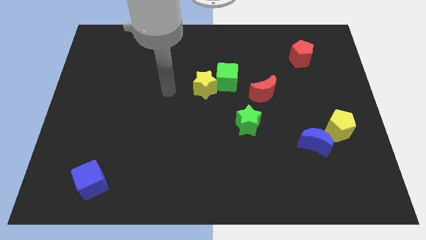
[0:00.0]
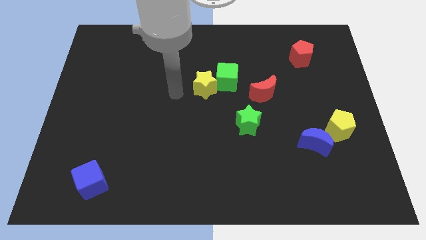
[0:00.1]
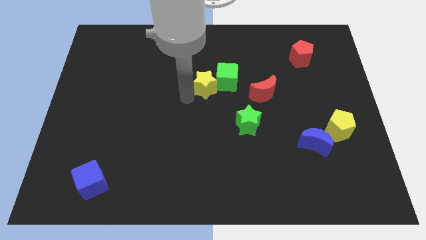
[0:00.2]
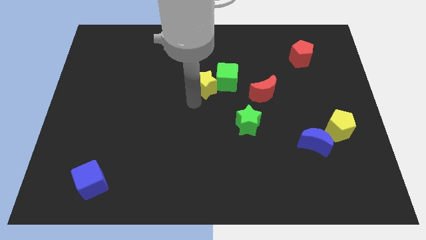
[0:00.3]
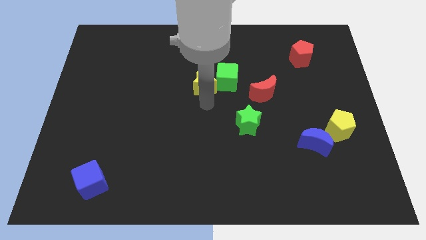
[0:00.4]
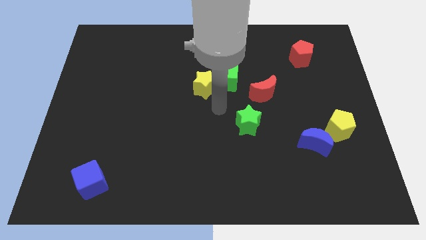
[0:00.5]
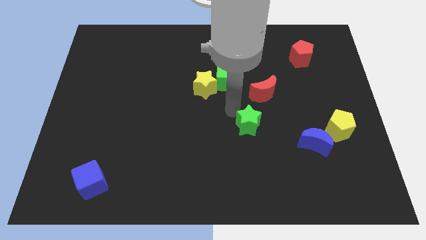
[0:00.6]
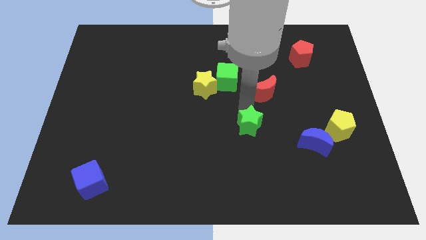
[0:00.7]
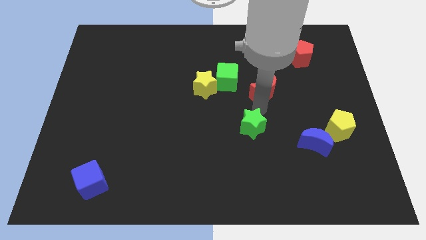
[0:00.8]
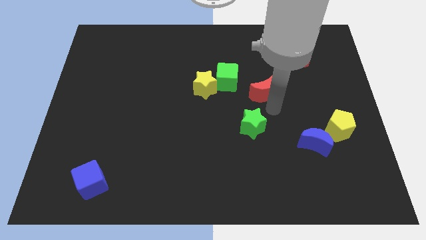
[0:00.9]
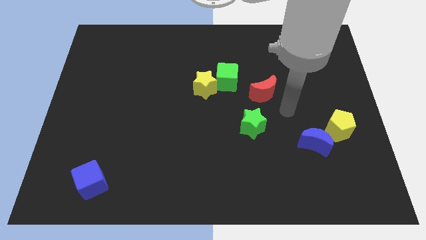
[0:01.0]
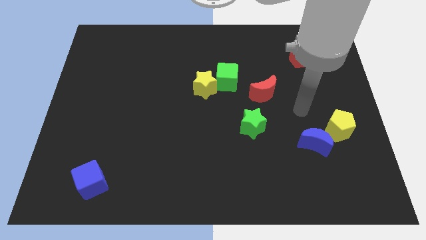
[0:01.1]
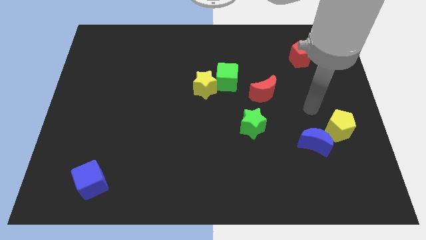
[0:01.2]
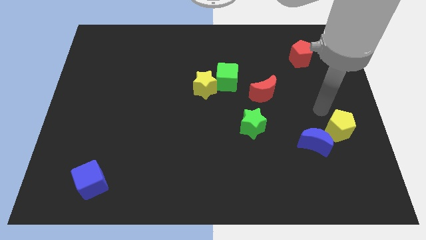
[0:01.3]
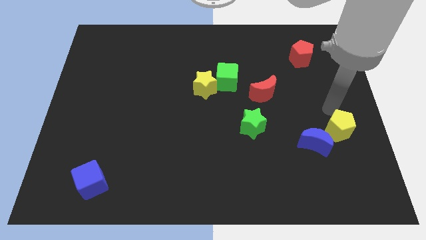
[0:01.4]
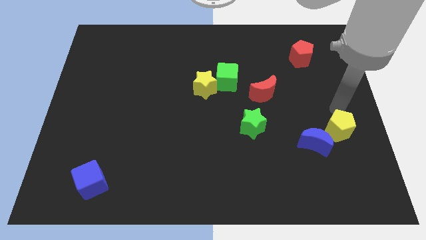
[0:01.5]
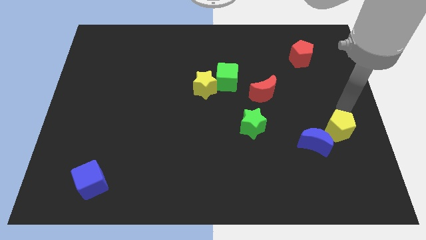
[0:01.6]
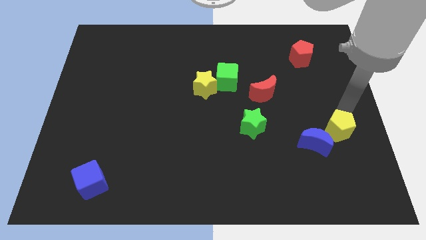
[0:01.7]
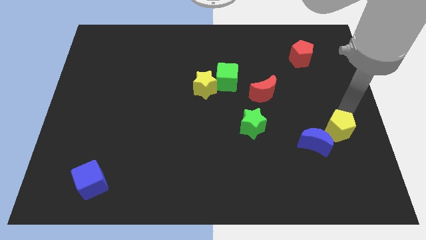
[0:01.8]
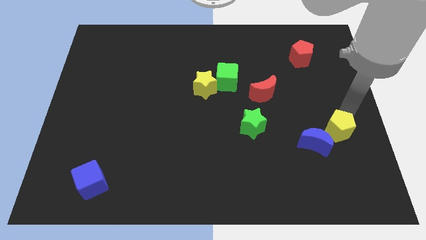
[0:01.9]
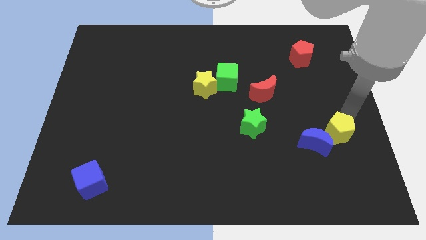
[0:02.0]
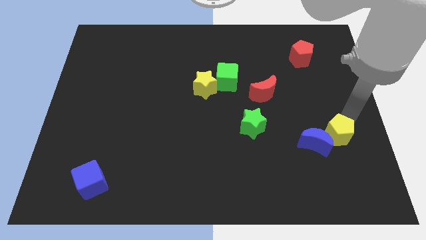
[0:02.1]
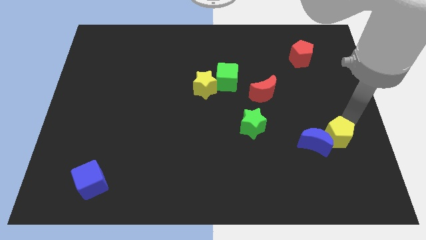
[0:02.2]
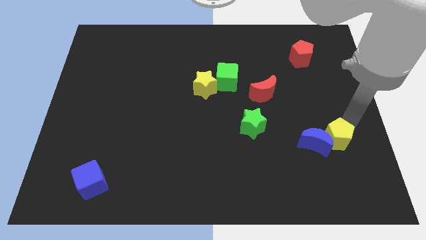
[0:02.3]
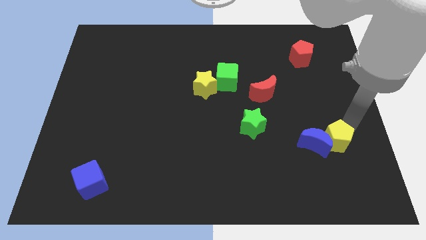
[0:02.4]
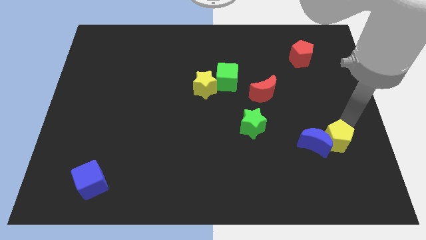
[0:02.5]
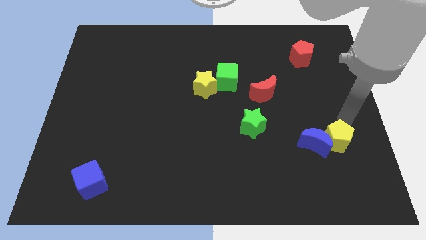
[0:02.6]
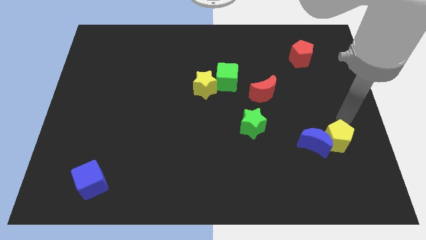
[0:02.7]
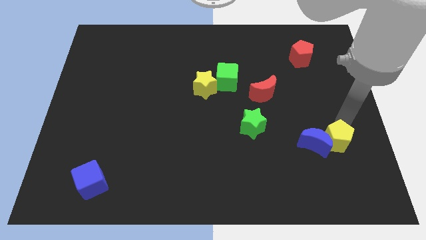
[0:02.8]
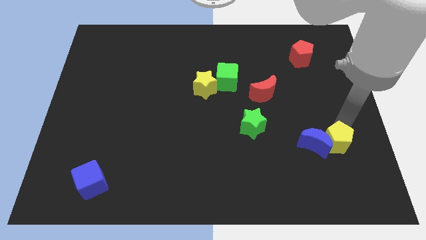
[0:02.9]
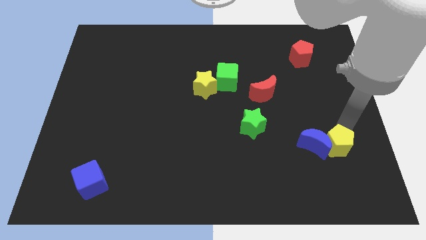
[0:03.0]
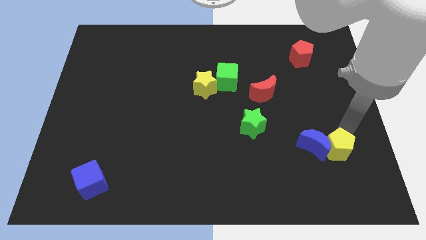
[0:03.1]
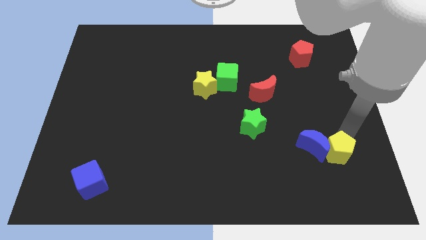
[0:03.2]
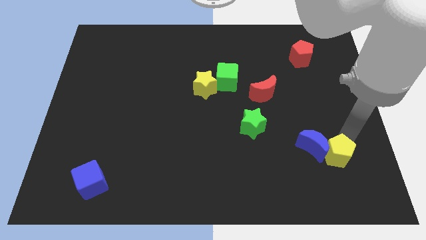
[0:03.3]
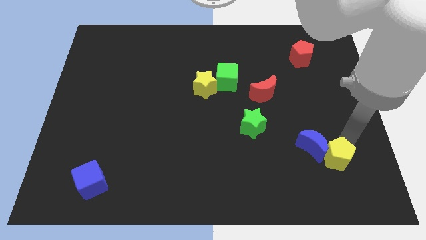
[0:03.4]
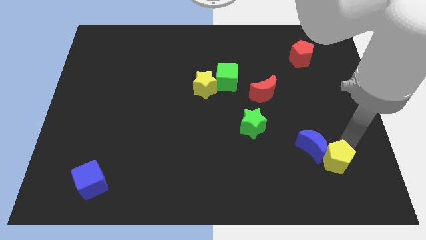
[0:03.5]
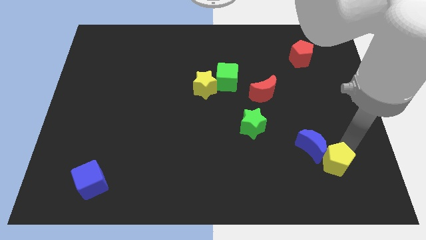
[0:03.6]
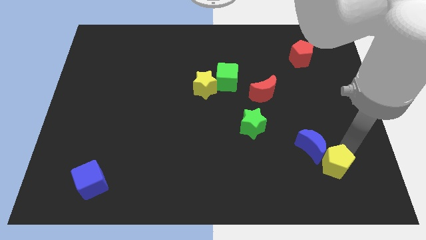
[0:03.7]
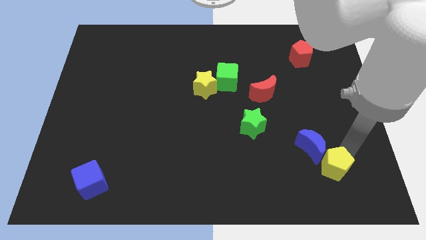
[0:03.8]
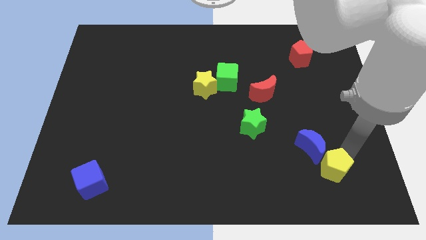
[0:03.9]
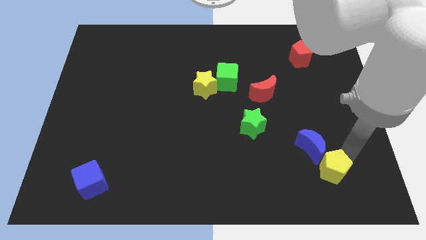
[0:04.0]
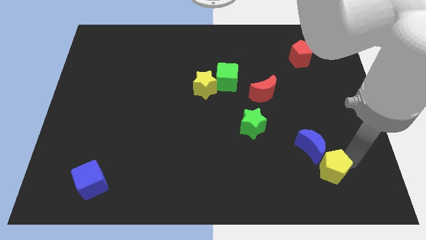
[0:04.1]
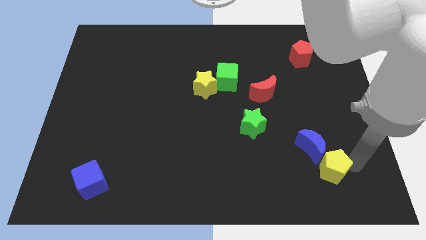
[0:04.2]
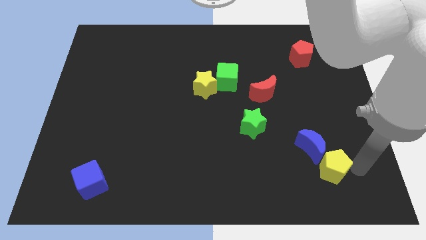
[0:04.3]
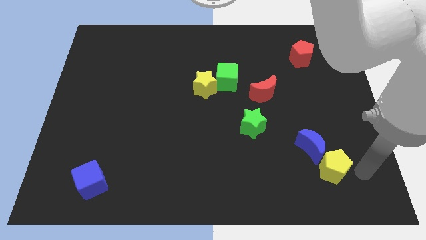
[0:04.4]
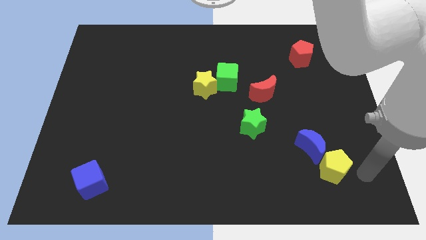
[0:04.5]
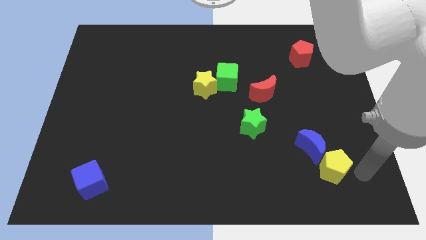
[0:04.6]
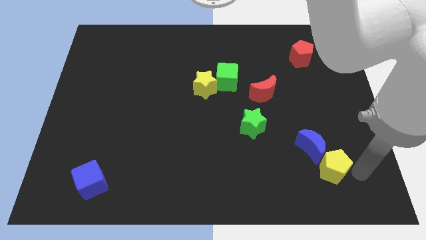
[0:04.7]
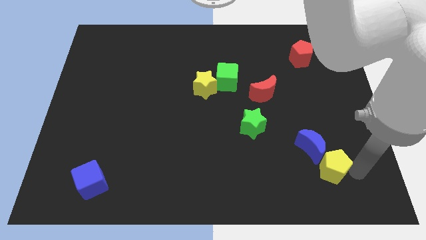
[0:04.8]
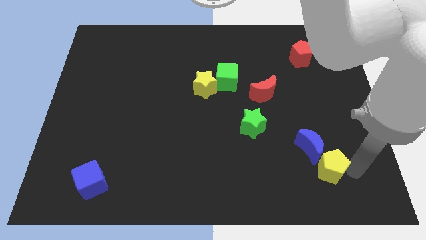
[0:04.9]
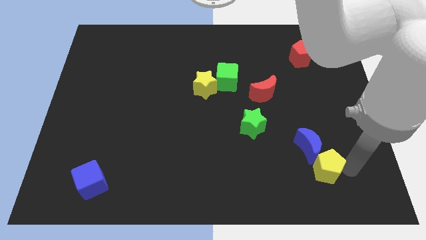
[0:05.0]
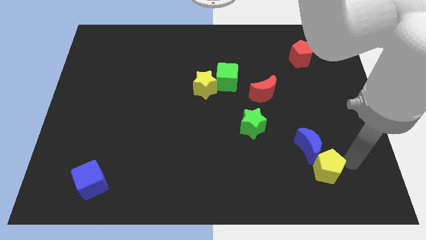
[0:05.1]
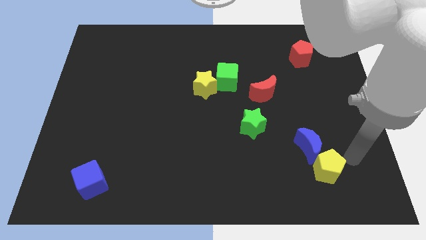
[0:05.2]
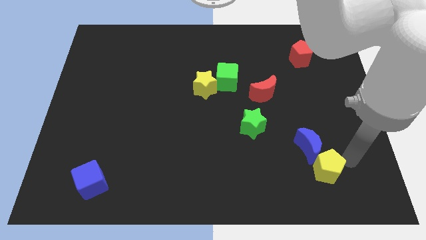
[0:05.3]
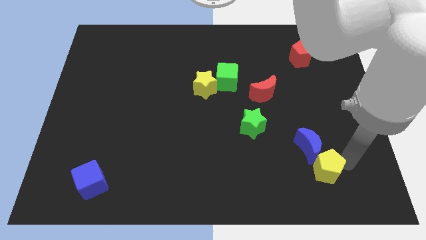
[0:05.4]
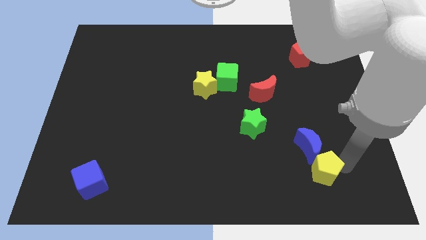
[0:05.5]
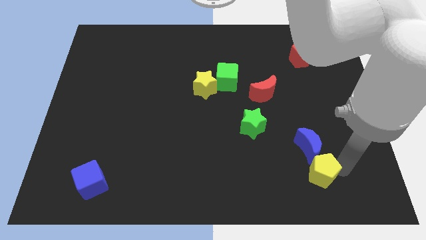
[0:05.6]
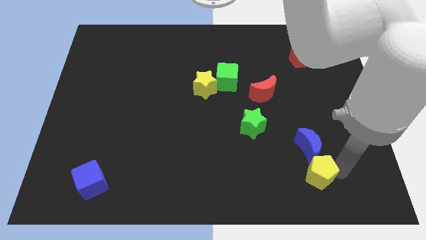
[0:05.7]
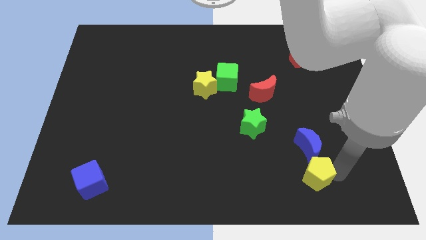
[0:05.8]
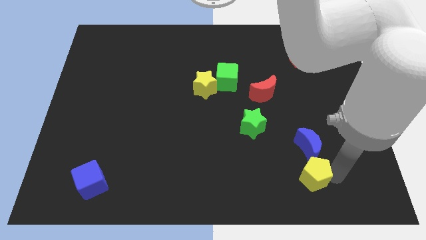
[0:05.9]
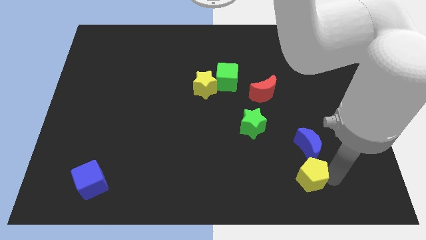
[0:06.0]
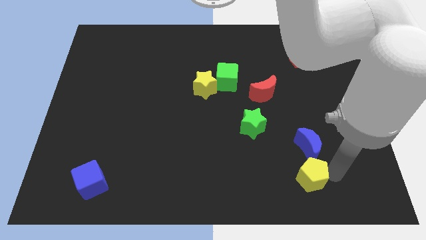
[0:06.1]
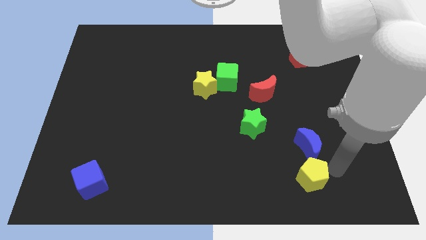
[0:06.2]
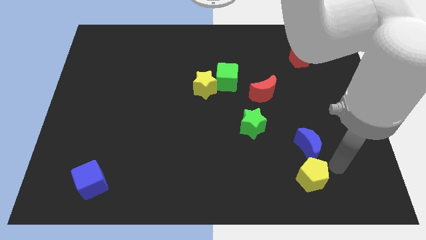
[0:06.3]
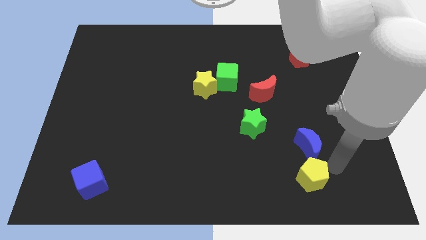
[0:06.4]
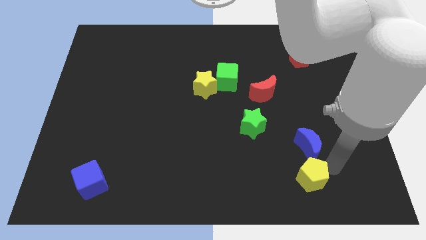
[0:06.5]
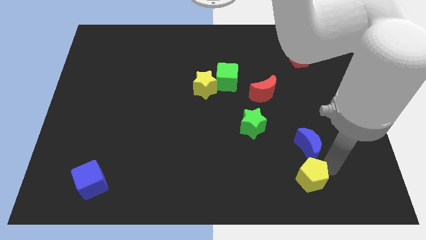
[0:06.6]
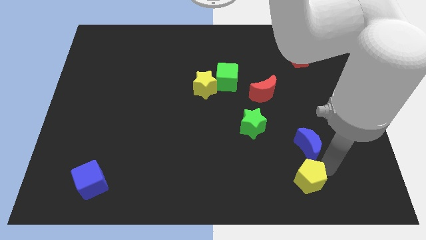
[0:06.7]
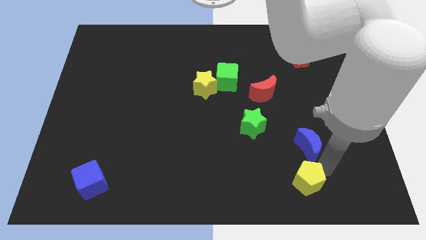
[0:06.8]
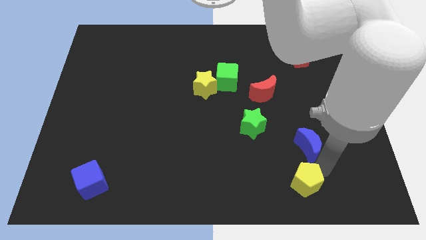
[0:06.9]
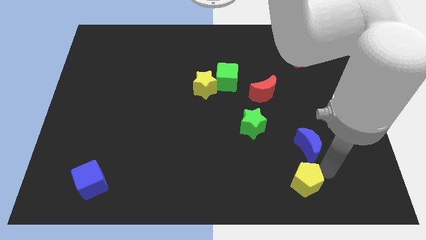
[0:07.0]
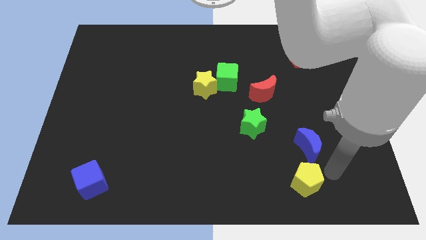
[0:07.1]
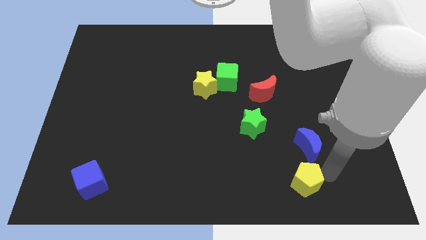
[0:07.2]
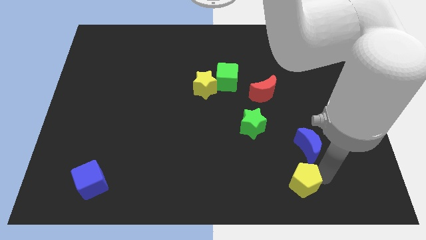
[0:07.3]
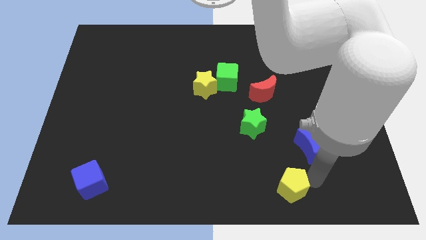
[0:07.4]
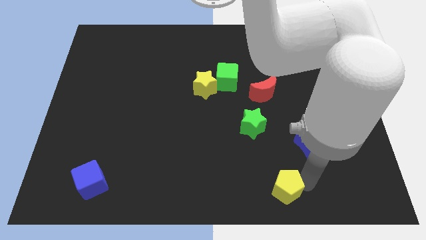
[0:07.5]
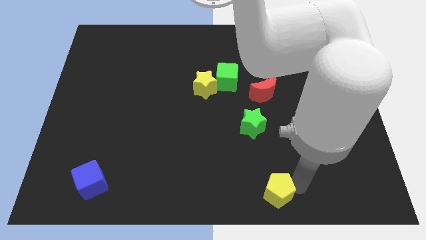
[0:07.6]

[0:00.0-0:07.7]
push the yellow pentagon to the bottom
